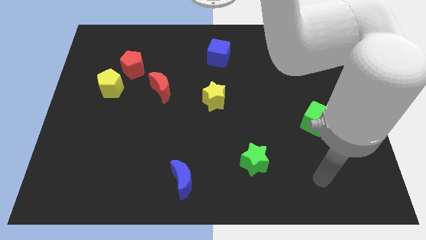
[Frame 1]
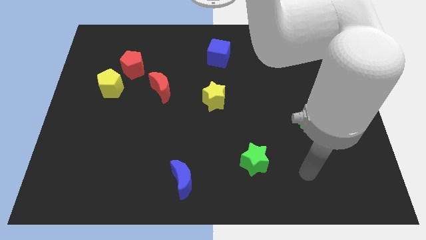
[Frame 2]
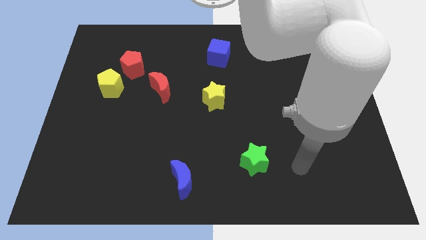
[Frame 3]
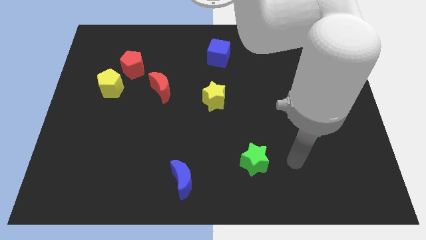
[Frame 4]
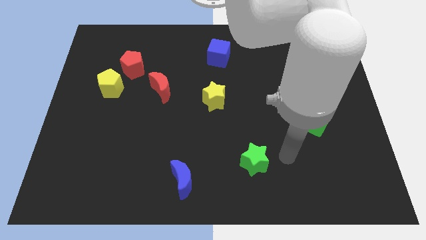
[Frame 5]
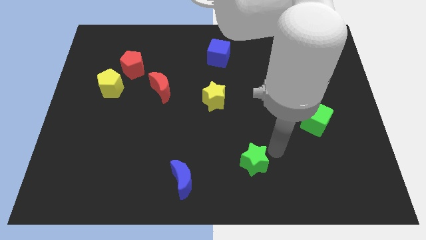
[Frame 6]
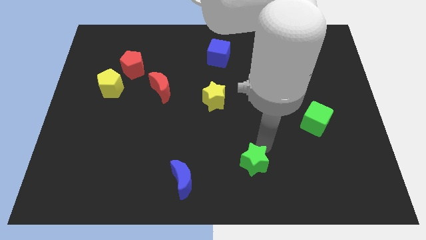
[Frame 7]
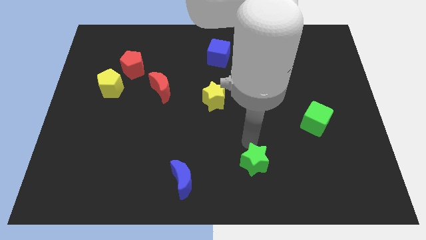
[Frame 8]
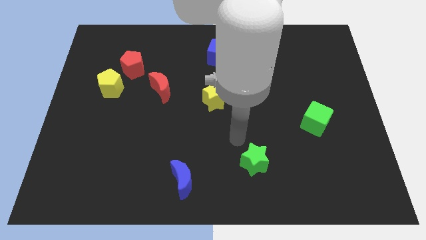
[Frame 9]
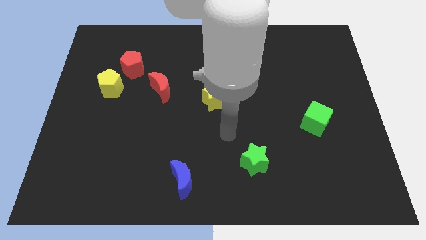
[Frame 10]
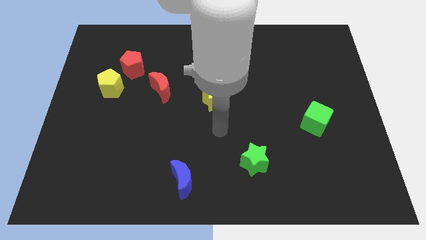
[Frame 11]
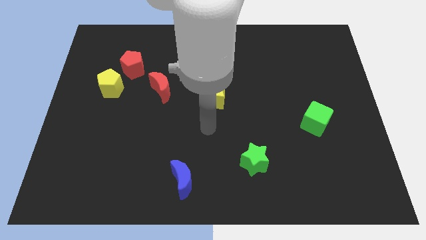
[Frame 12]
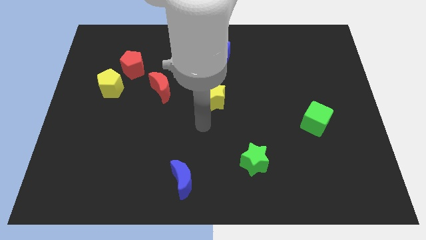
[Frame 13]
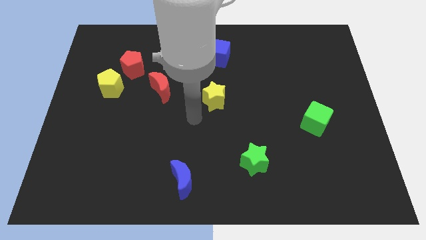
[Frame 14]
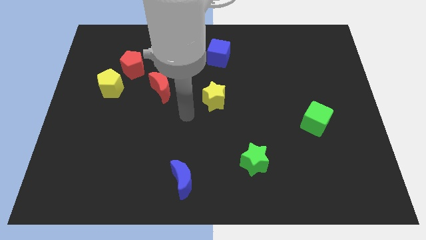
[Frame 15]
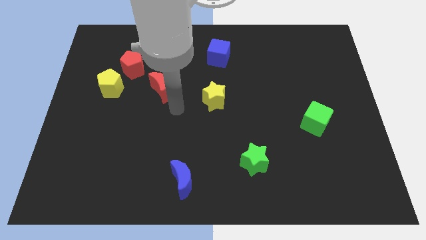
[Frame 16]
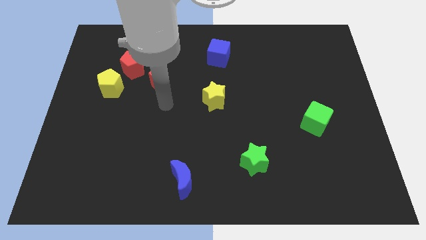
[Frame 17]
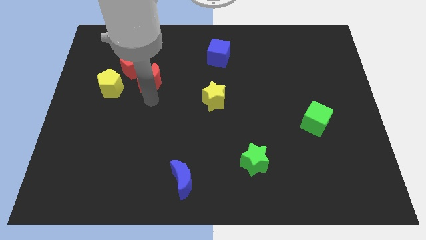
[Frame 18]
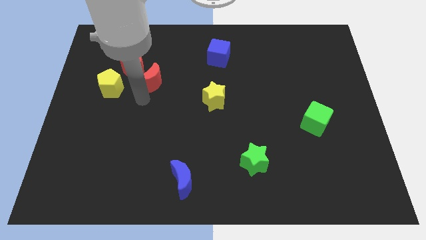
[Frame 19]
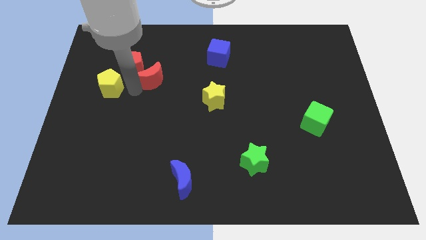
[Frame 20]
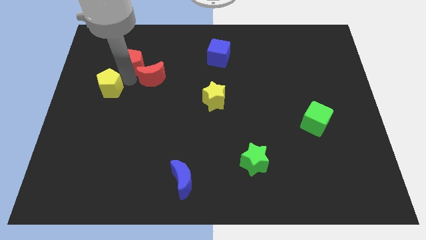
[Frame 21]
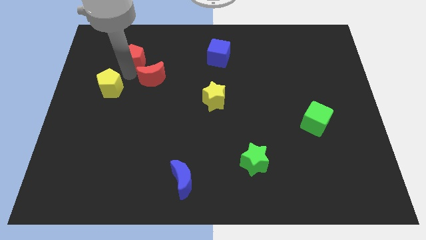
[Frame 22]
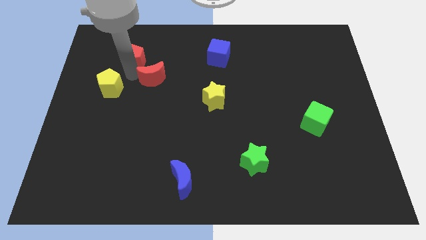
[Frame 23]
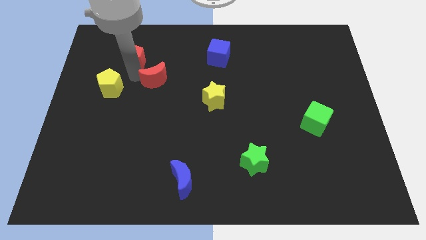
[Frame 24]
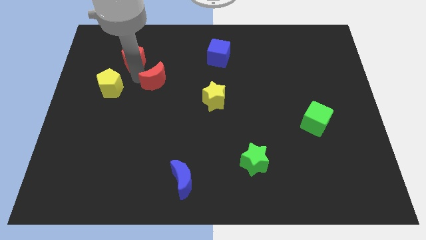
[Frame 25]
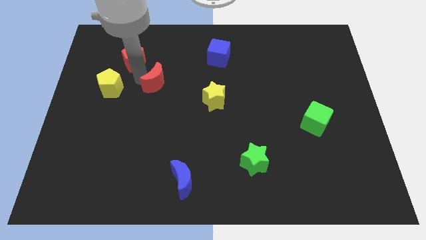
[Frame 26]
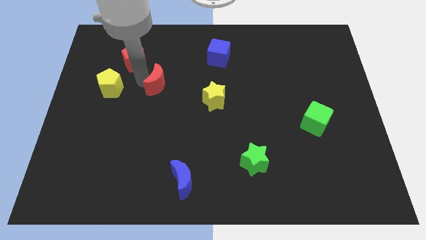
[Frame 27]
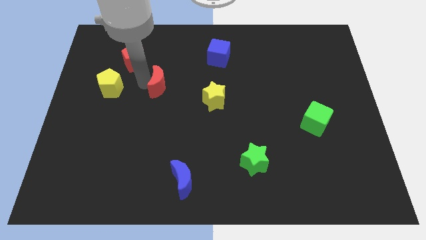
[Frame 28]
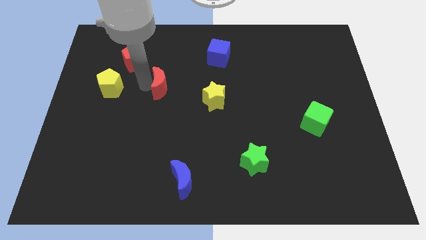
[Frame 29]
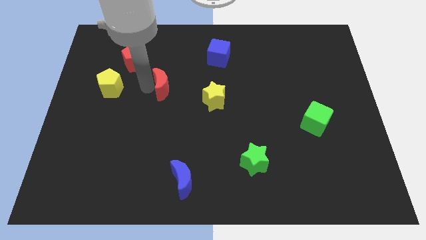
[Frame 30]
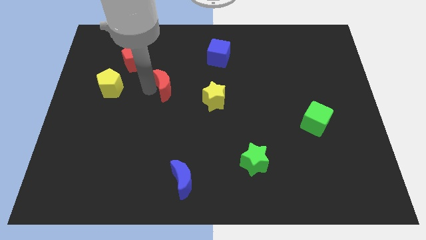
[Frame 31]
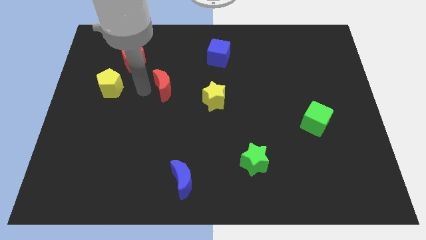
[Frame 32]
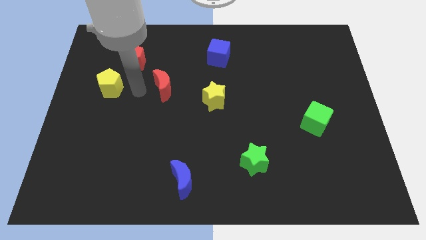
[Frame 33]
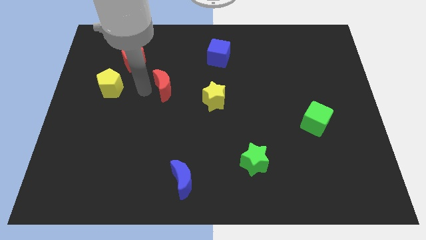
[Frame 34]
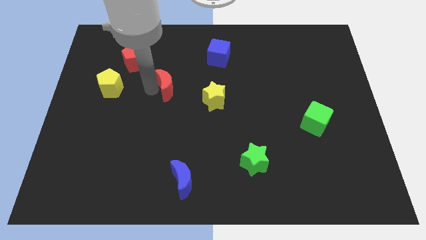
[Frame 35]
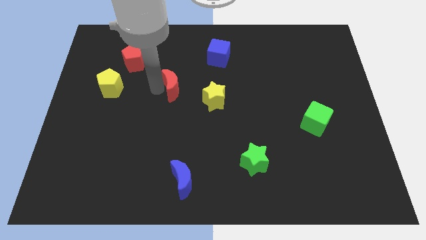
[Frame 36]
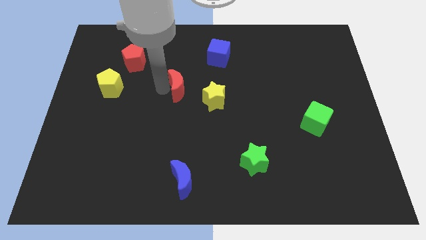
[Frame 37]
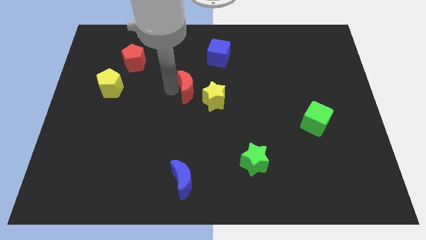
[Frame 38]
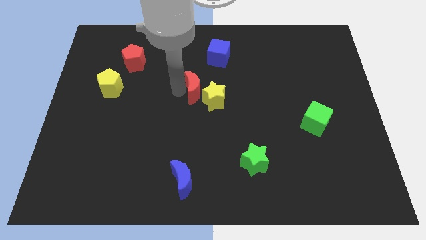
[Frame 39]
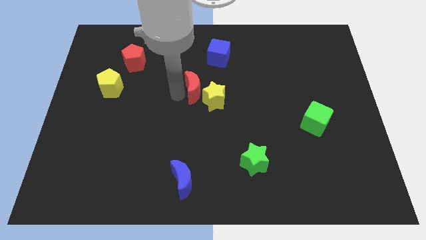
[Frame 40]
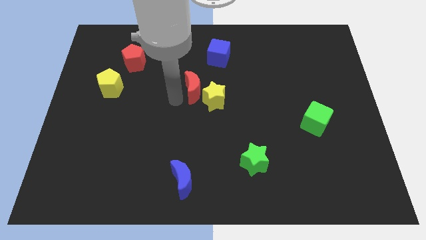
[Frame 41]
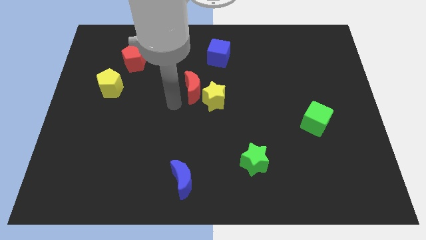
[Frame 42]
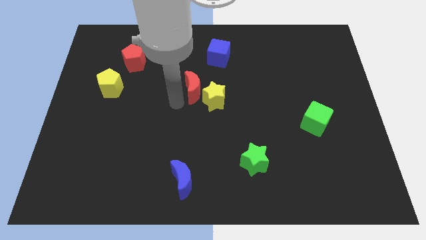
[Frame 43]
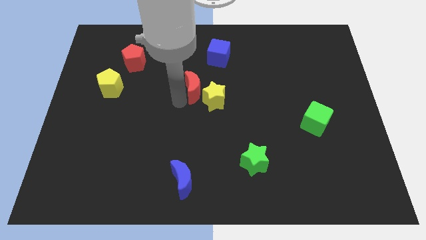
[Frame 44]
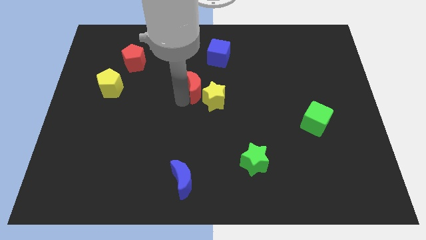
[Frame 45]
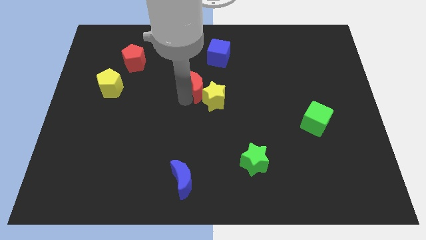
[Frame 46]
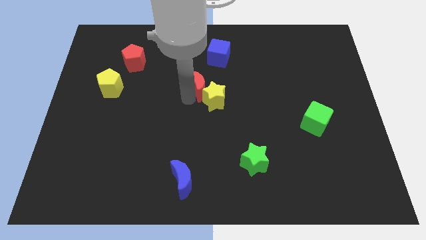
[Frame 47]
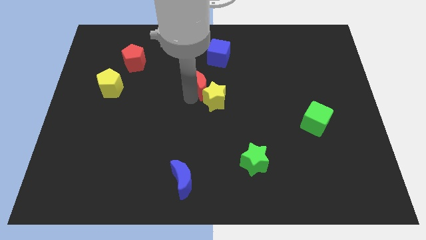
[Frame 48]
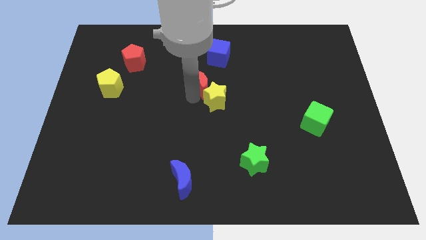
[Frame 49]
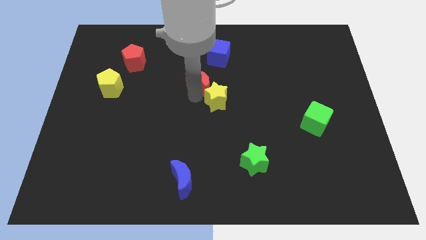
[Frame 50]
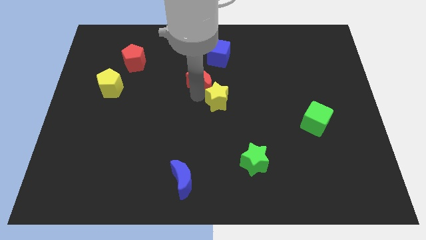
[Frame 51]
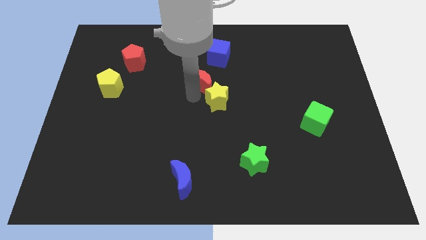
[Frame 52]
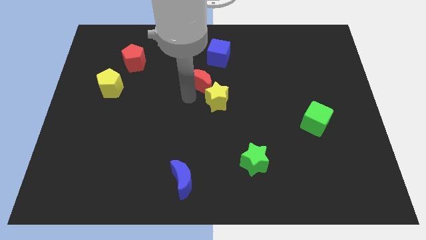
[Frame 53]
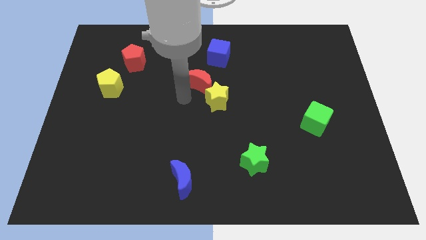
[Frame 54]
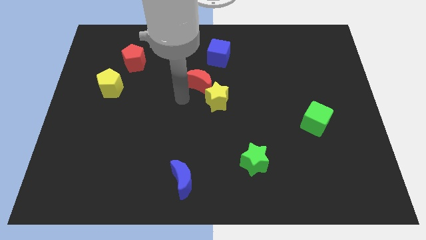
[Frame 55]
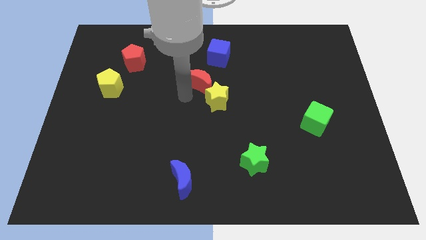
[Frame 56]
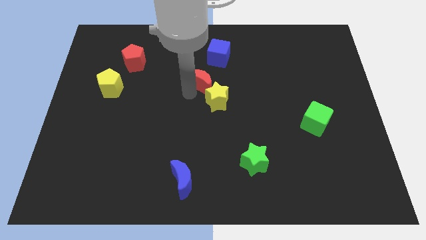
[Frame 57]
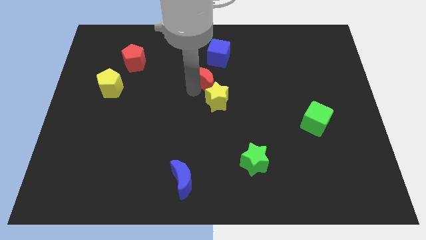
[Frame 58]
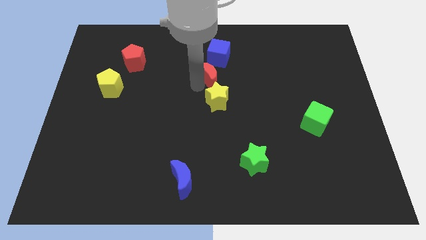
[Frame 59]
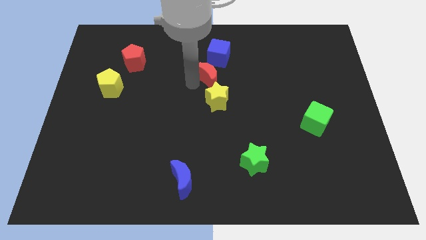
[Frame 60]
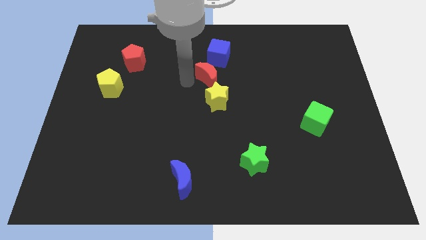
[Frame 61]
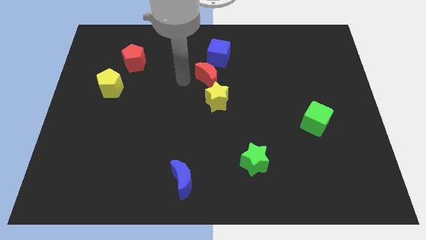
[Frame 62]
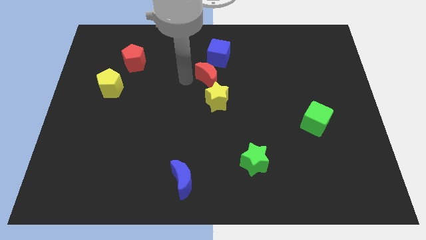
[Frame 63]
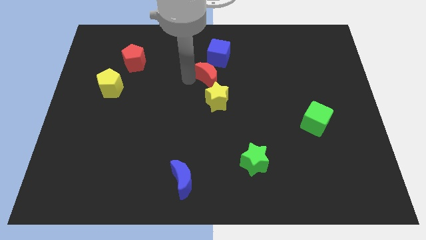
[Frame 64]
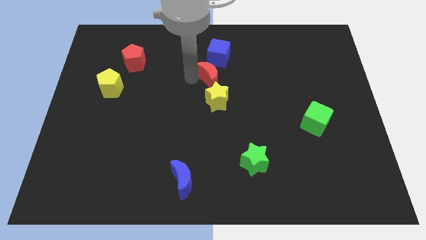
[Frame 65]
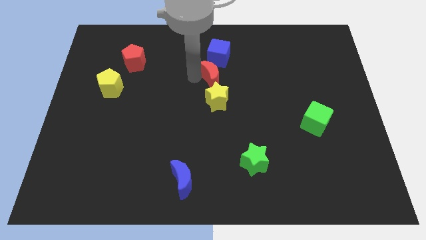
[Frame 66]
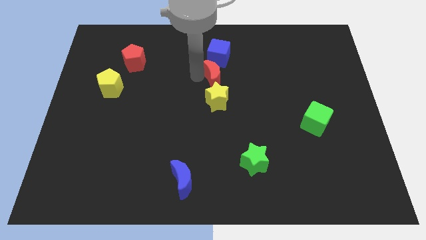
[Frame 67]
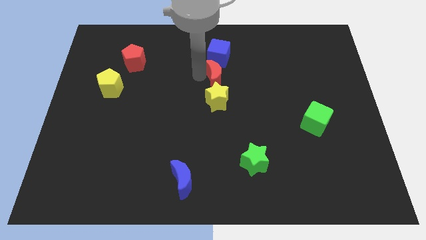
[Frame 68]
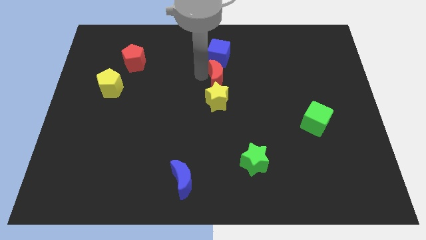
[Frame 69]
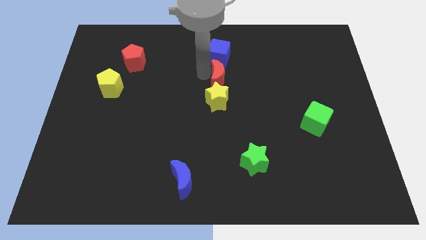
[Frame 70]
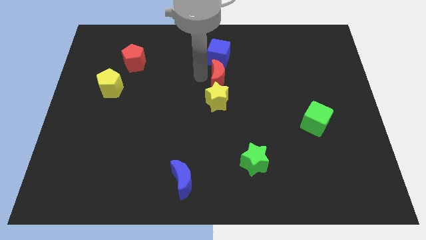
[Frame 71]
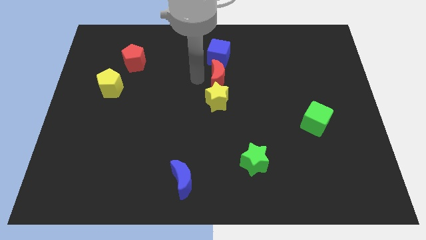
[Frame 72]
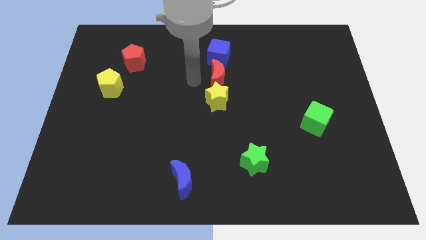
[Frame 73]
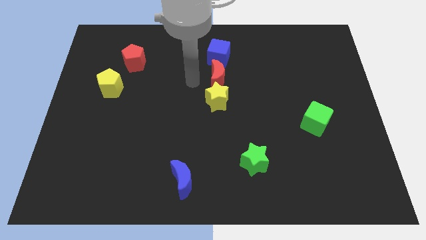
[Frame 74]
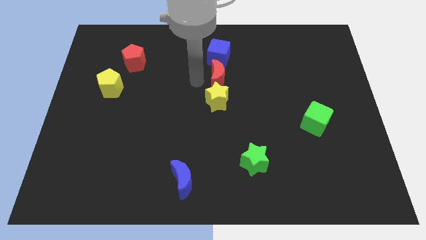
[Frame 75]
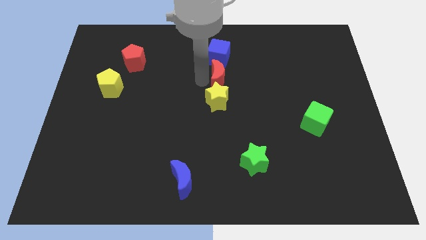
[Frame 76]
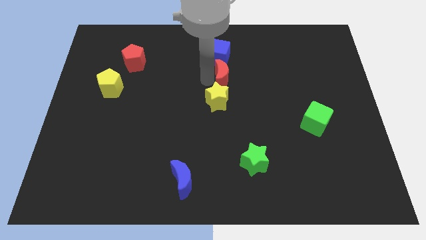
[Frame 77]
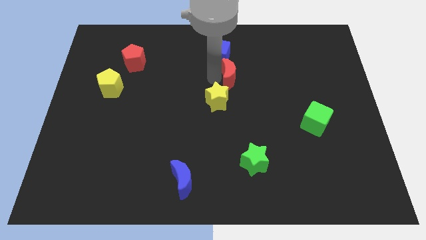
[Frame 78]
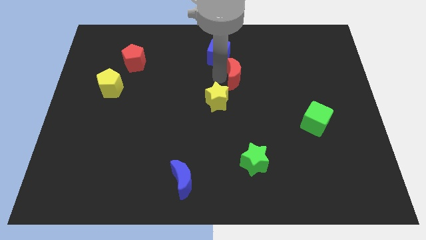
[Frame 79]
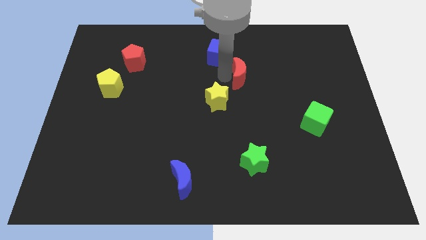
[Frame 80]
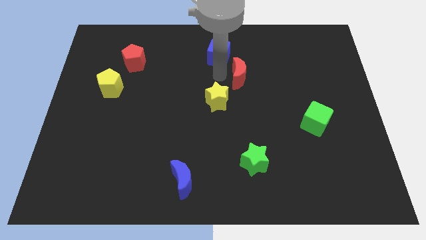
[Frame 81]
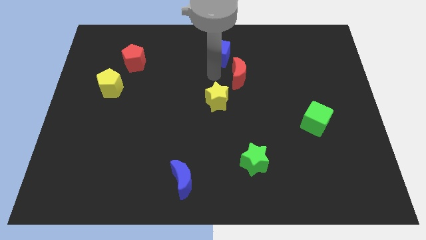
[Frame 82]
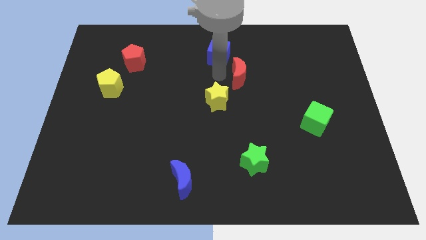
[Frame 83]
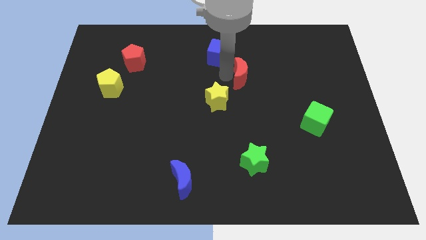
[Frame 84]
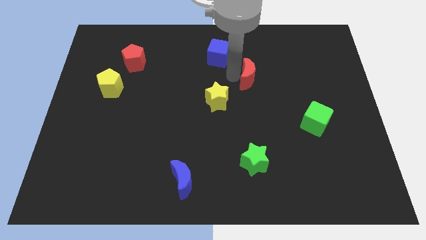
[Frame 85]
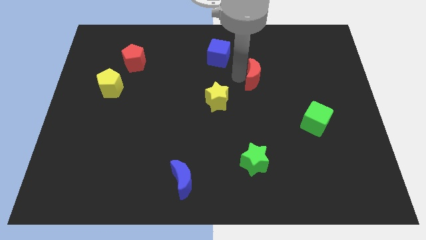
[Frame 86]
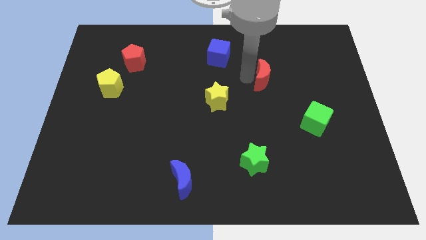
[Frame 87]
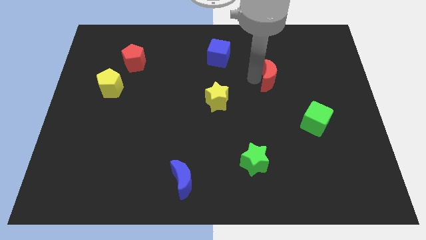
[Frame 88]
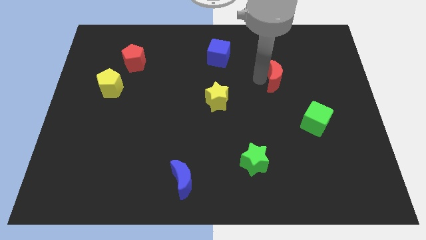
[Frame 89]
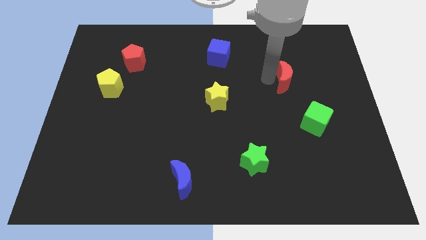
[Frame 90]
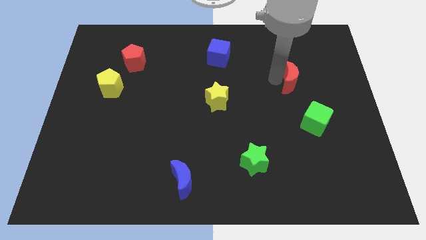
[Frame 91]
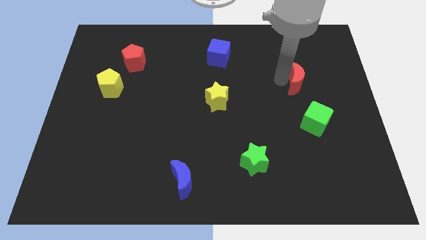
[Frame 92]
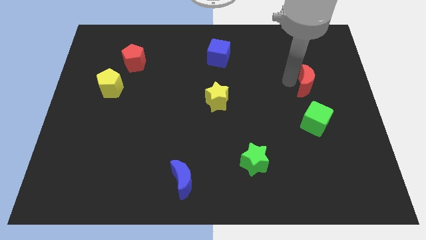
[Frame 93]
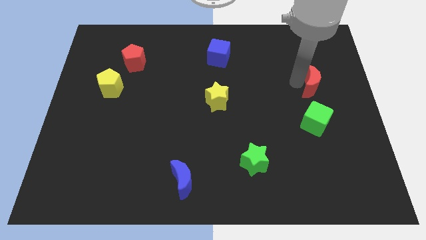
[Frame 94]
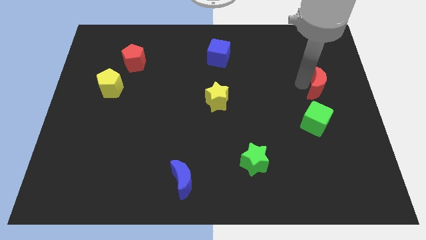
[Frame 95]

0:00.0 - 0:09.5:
push the red moon to the right side of the board
